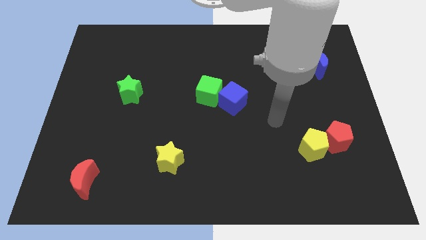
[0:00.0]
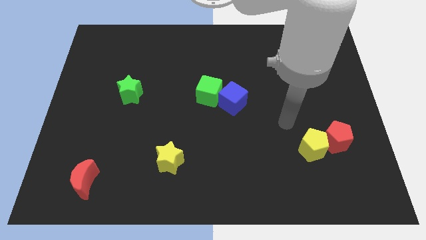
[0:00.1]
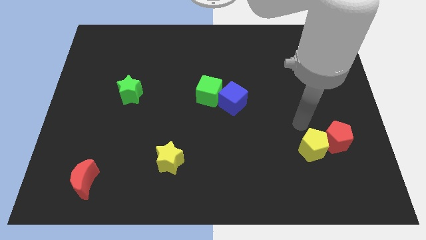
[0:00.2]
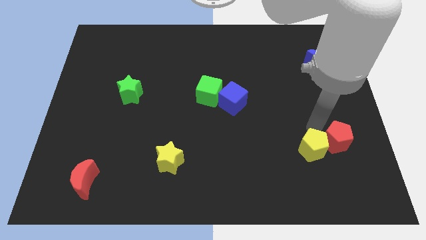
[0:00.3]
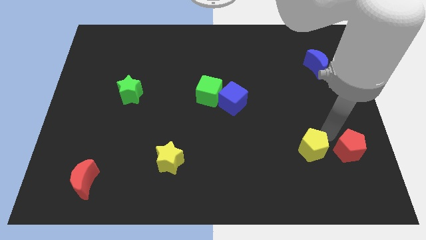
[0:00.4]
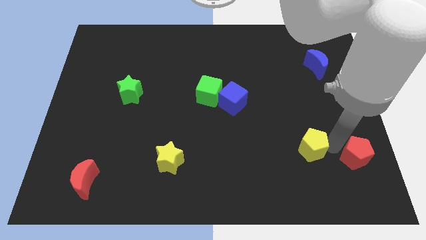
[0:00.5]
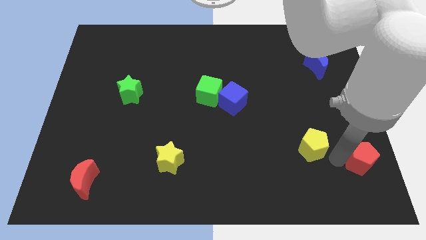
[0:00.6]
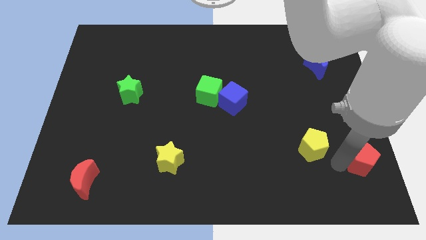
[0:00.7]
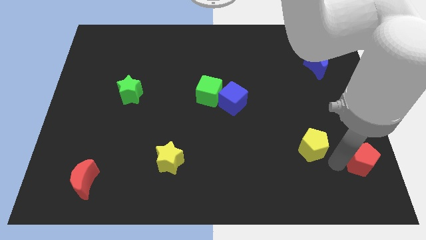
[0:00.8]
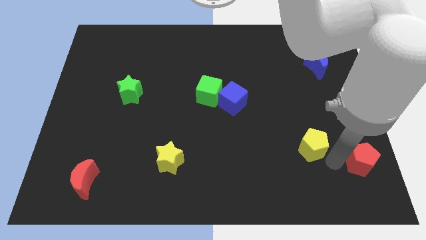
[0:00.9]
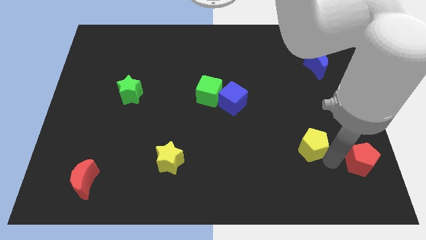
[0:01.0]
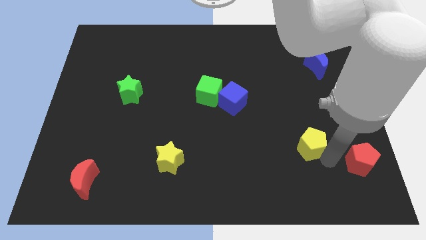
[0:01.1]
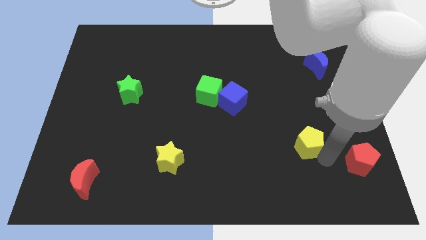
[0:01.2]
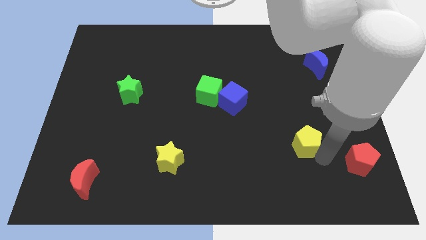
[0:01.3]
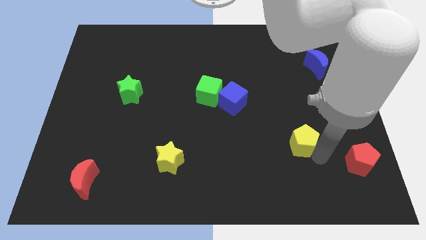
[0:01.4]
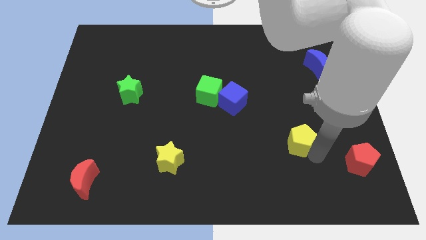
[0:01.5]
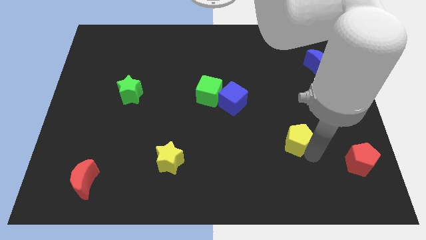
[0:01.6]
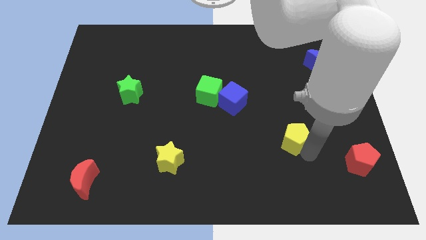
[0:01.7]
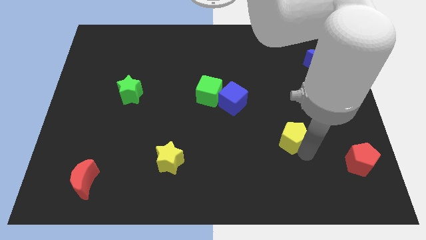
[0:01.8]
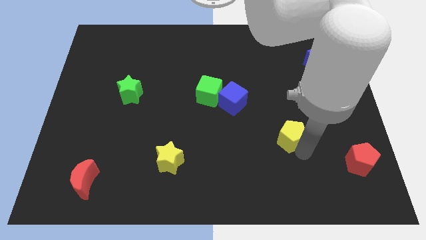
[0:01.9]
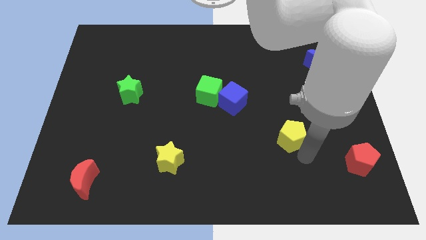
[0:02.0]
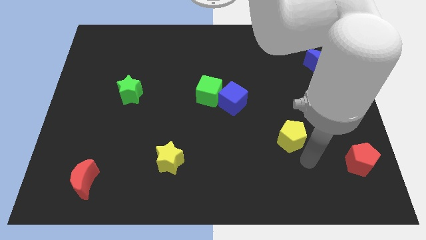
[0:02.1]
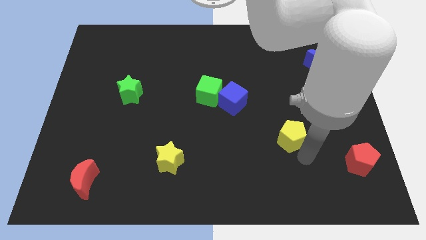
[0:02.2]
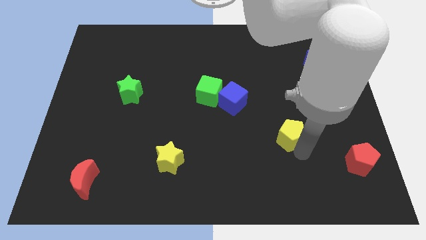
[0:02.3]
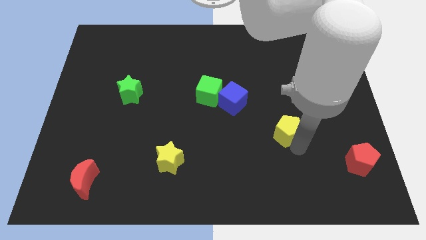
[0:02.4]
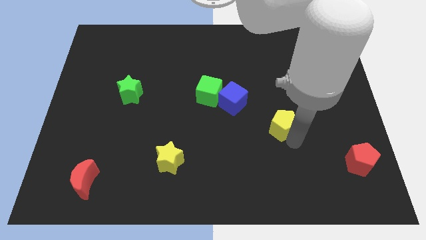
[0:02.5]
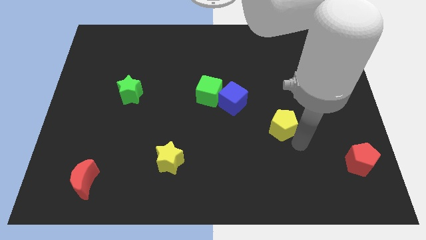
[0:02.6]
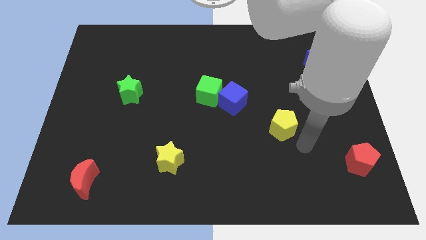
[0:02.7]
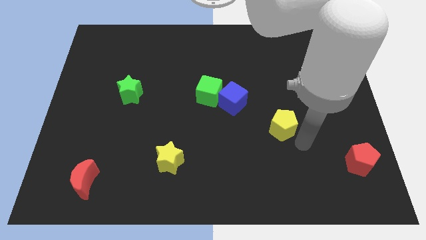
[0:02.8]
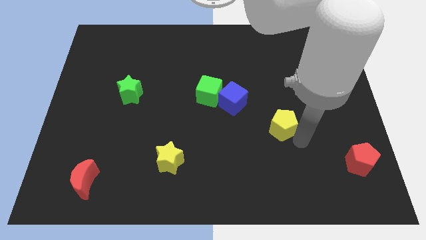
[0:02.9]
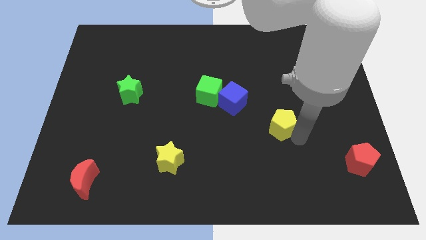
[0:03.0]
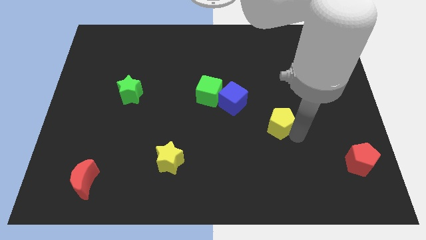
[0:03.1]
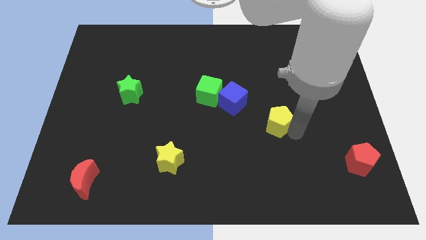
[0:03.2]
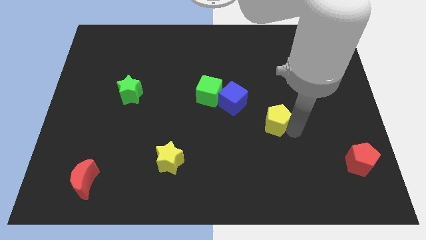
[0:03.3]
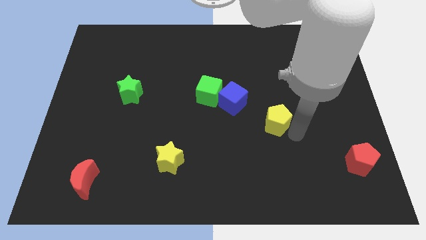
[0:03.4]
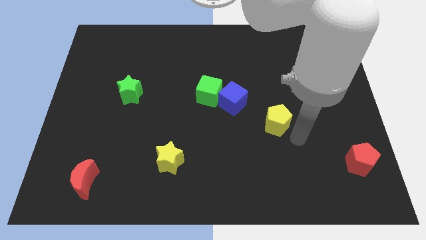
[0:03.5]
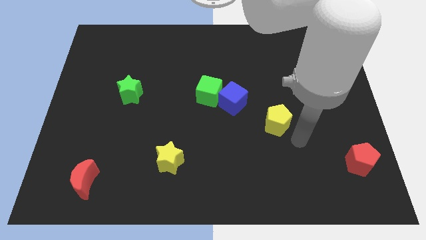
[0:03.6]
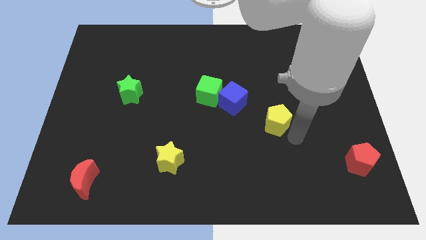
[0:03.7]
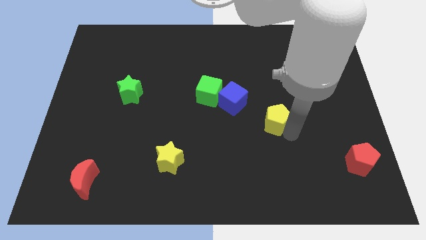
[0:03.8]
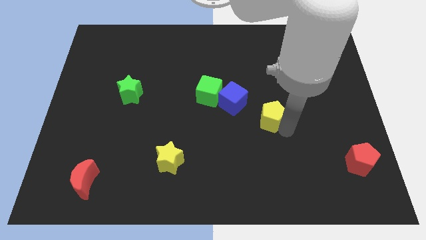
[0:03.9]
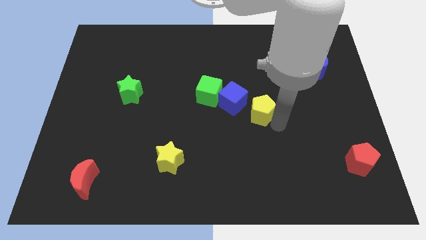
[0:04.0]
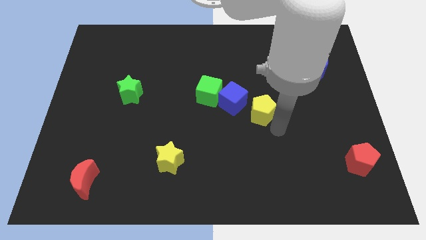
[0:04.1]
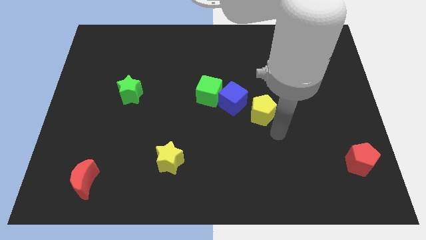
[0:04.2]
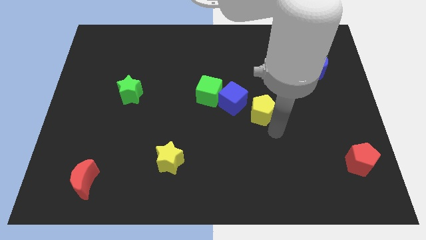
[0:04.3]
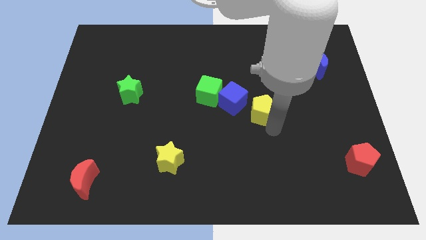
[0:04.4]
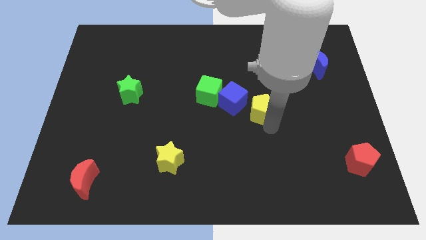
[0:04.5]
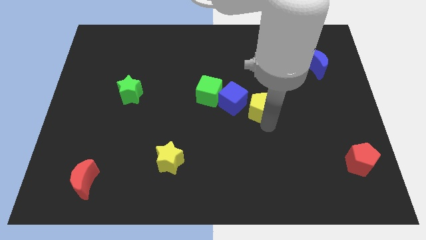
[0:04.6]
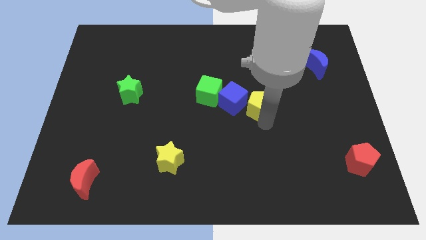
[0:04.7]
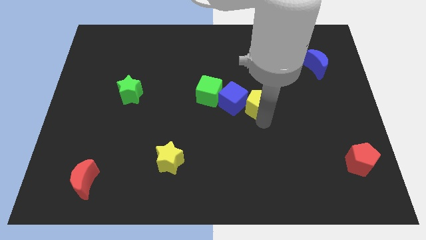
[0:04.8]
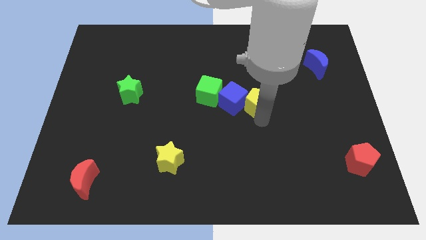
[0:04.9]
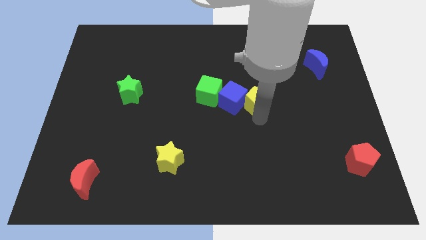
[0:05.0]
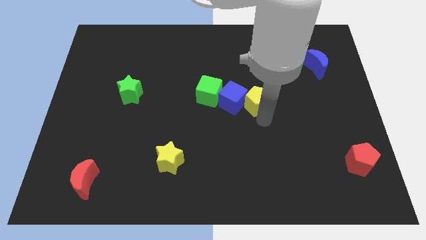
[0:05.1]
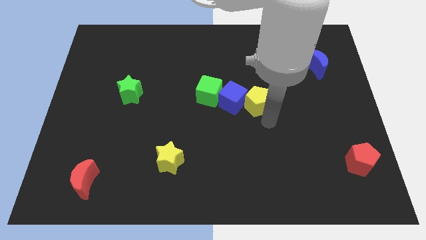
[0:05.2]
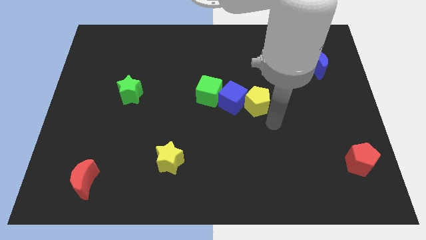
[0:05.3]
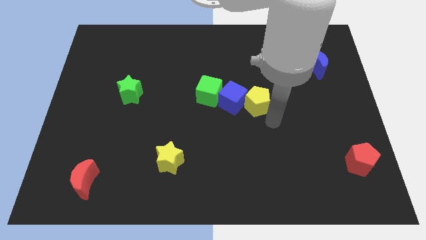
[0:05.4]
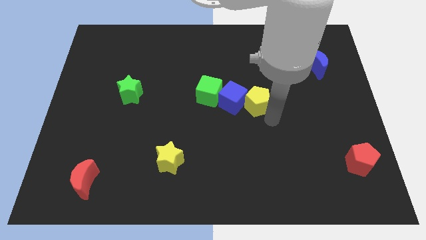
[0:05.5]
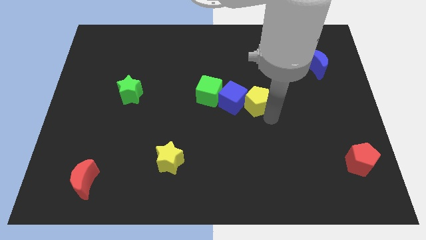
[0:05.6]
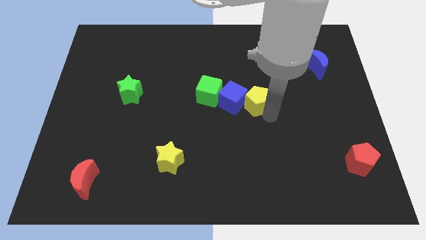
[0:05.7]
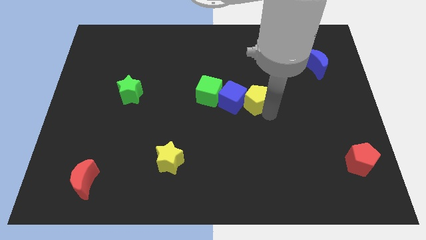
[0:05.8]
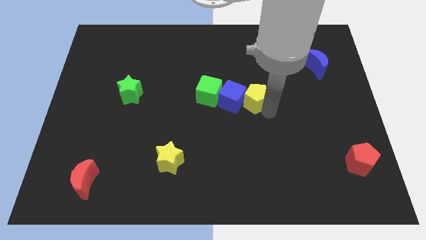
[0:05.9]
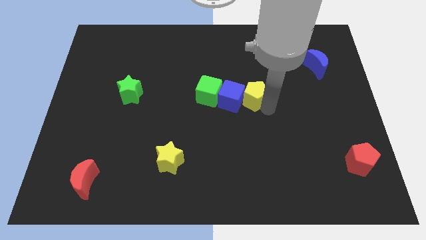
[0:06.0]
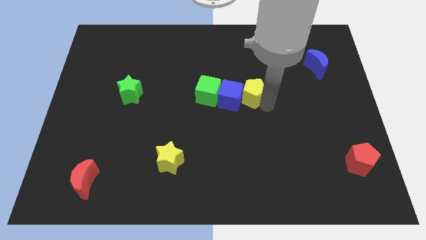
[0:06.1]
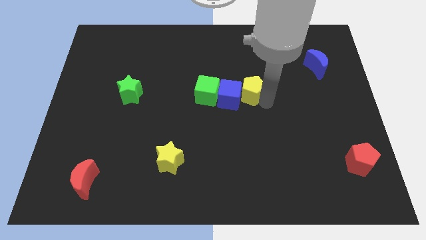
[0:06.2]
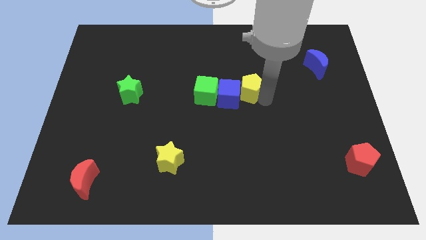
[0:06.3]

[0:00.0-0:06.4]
slide the yellow pentagon upwards and to the left

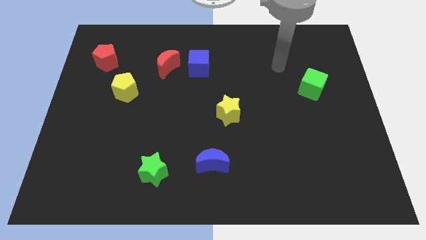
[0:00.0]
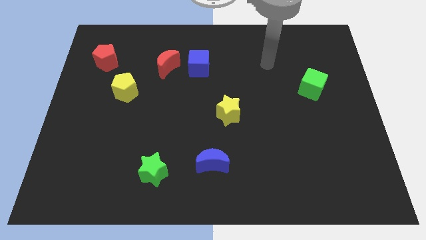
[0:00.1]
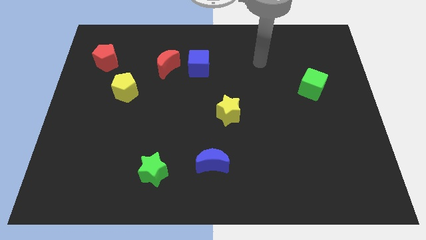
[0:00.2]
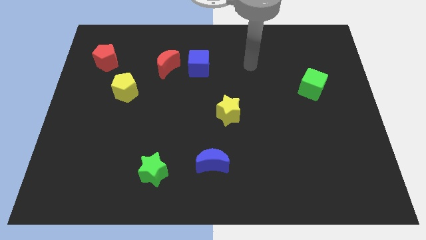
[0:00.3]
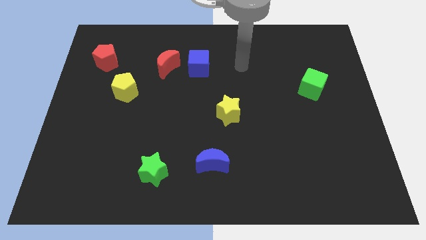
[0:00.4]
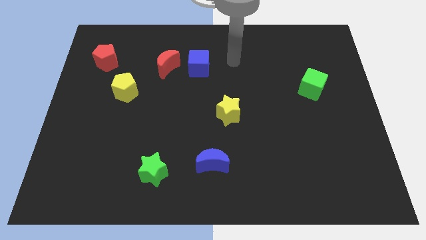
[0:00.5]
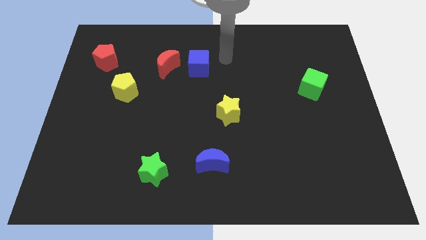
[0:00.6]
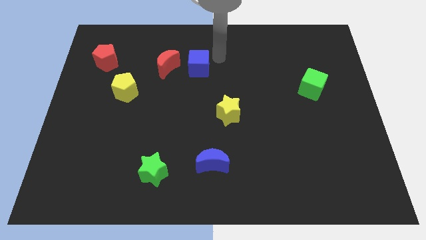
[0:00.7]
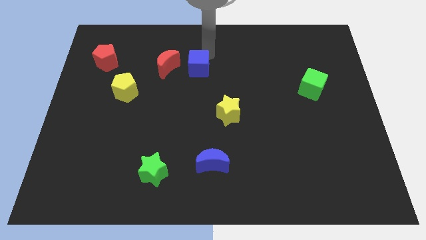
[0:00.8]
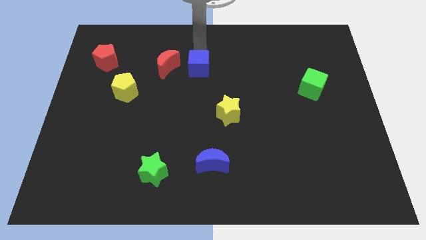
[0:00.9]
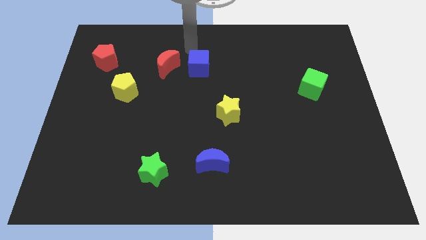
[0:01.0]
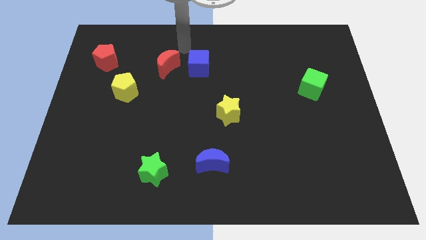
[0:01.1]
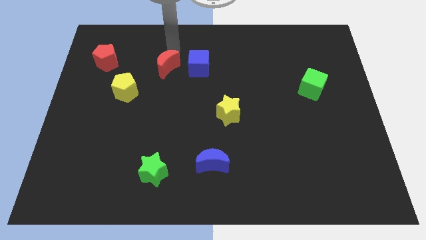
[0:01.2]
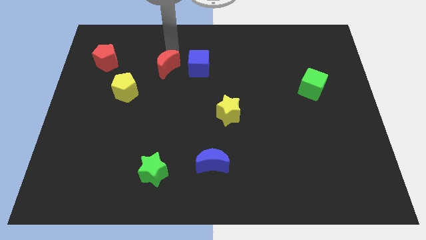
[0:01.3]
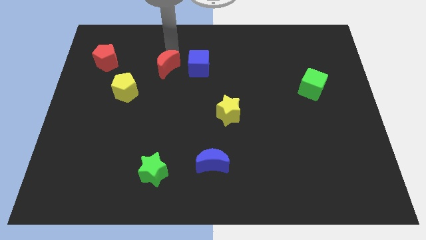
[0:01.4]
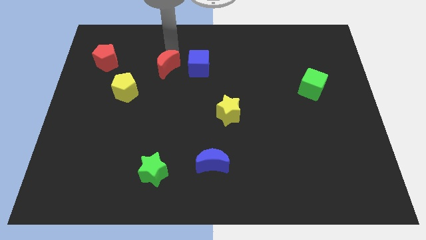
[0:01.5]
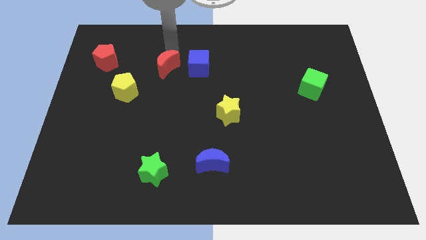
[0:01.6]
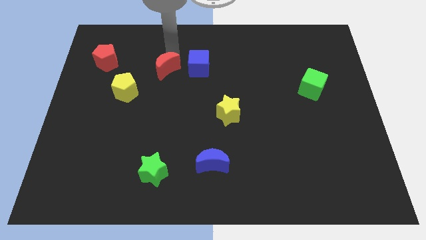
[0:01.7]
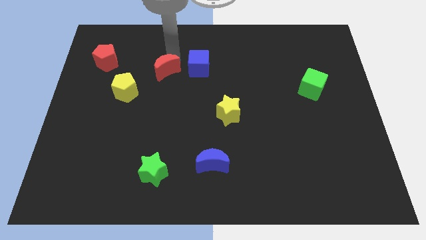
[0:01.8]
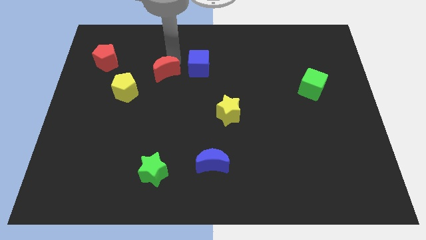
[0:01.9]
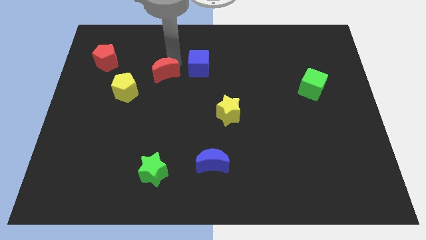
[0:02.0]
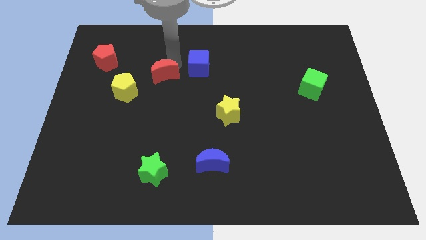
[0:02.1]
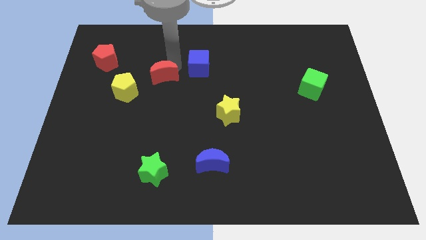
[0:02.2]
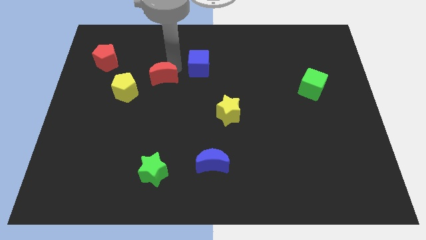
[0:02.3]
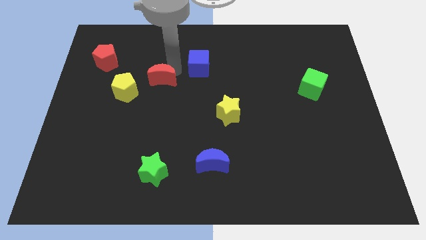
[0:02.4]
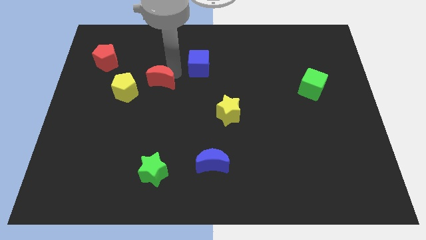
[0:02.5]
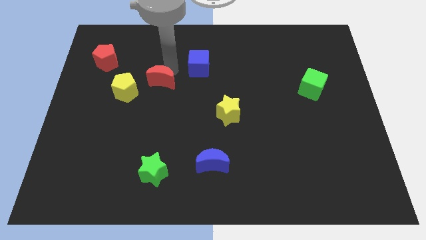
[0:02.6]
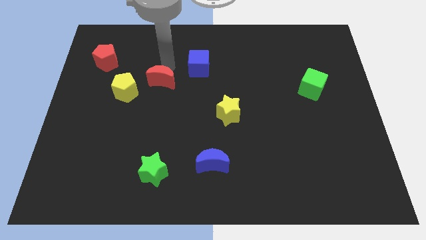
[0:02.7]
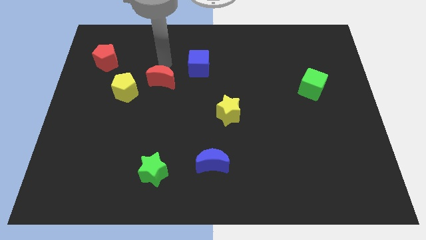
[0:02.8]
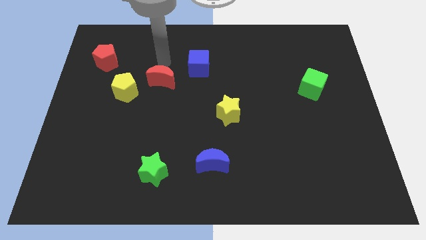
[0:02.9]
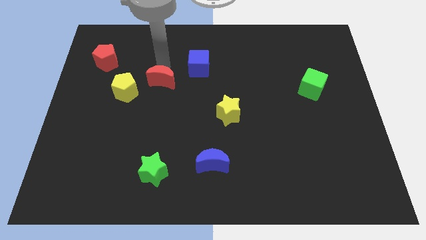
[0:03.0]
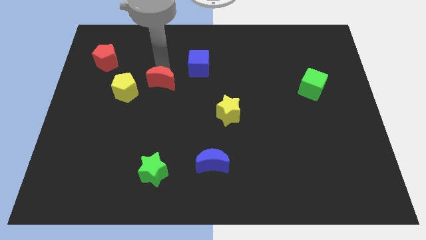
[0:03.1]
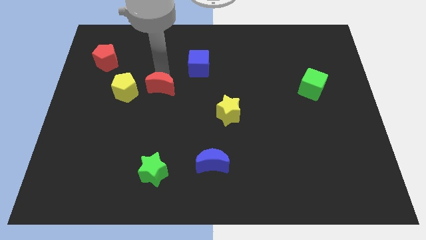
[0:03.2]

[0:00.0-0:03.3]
move the red moon a little bit downwards
